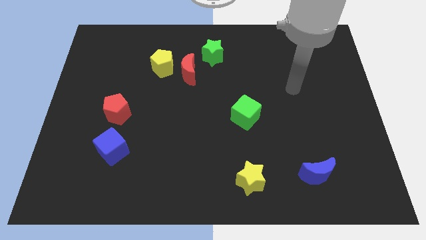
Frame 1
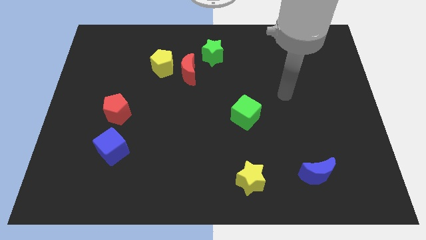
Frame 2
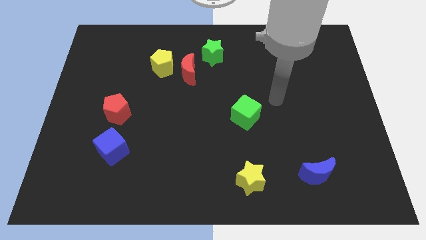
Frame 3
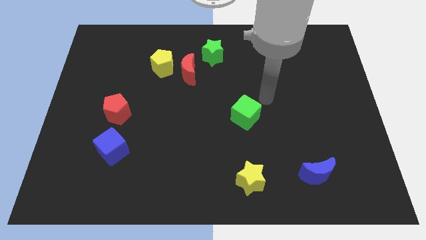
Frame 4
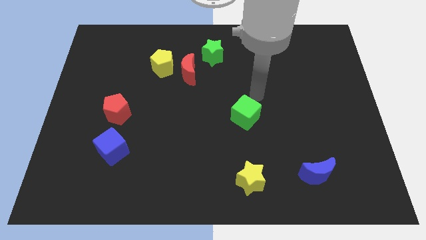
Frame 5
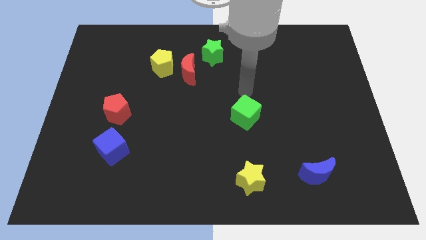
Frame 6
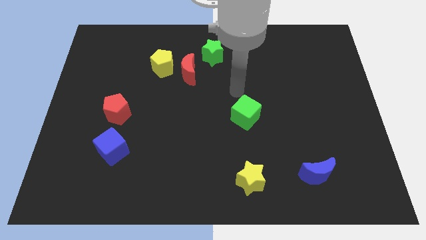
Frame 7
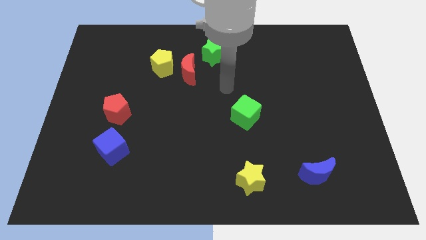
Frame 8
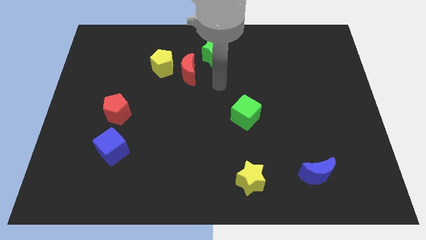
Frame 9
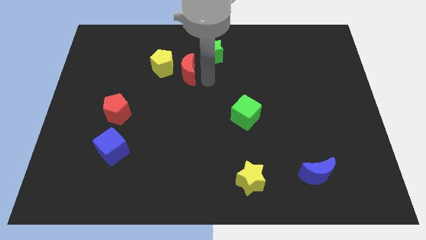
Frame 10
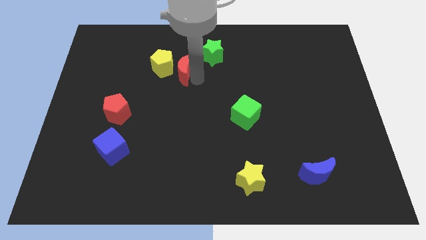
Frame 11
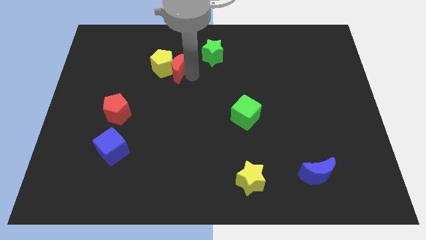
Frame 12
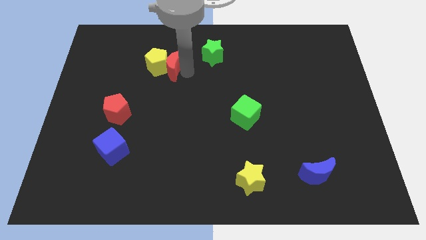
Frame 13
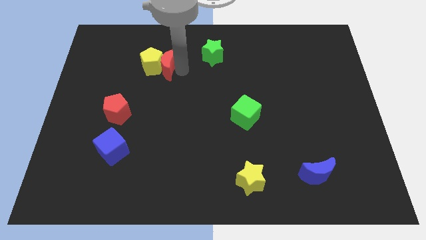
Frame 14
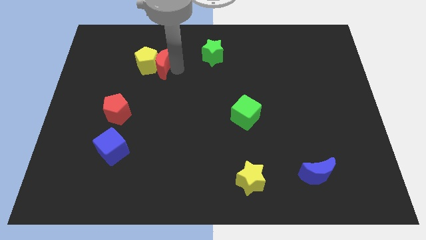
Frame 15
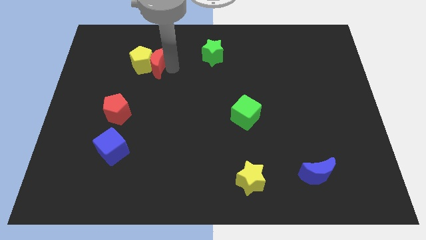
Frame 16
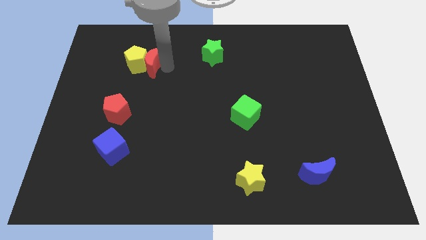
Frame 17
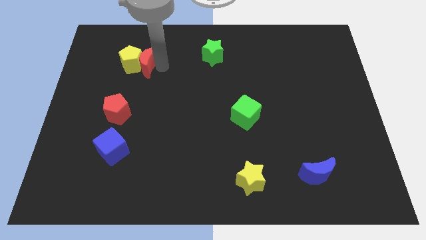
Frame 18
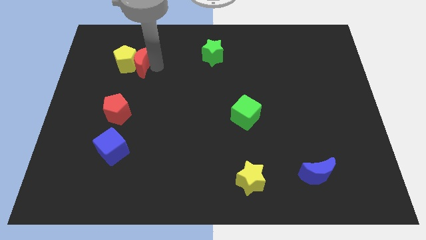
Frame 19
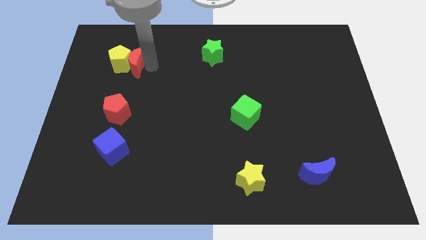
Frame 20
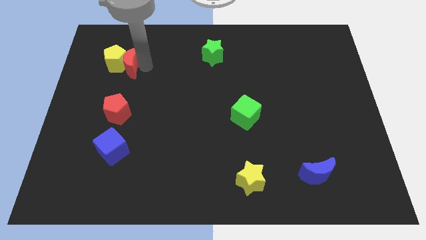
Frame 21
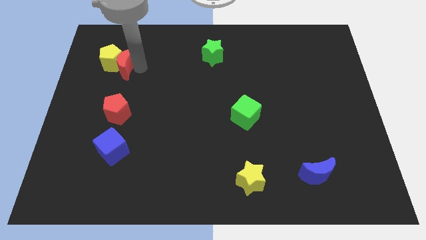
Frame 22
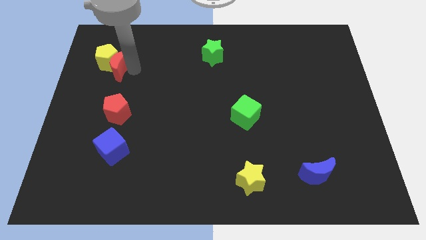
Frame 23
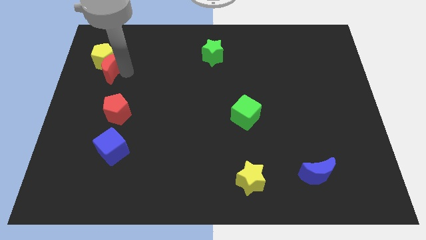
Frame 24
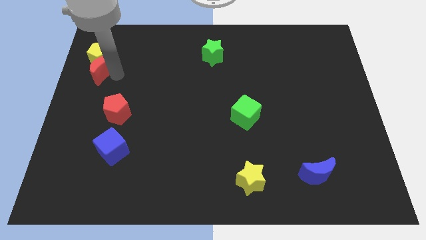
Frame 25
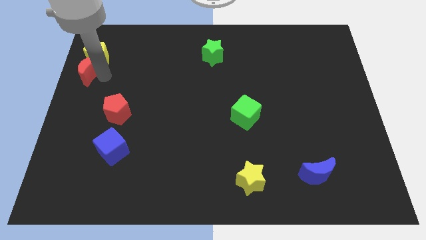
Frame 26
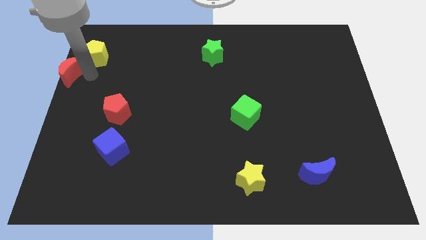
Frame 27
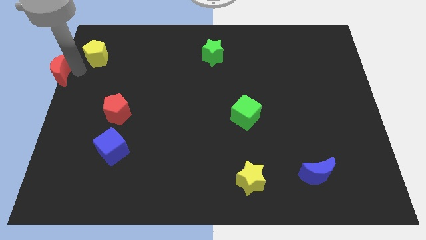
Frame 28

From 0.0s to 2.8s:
move the yellow pentagon away from the red moon

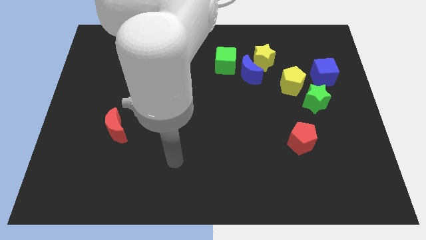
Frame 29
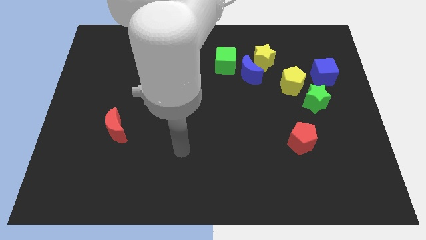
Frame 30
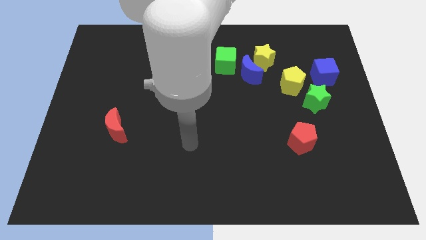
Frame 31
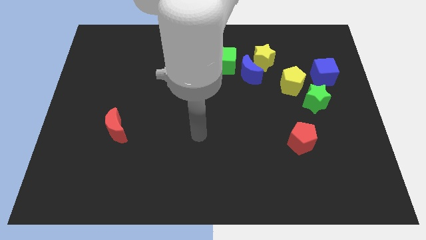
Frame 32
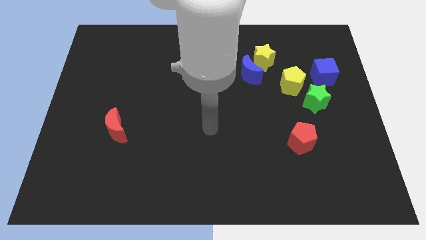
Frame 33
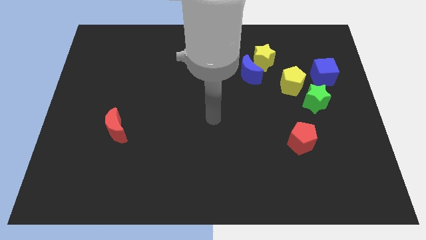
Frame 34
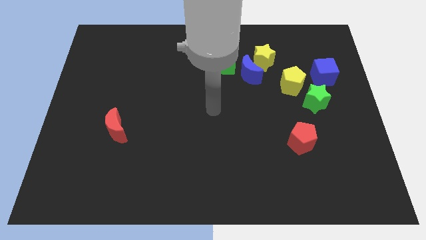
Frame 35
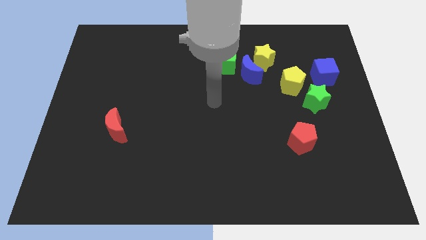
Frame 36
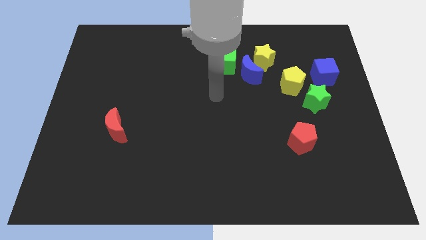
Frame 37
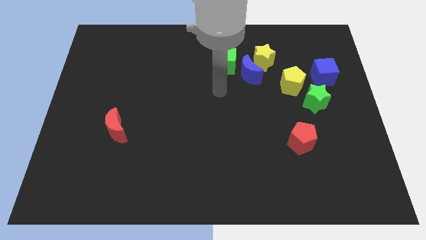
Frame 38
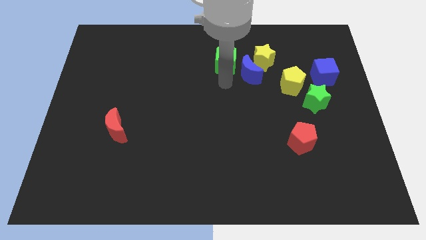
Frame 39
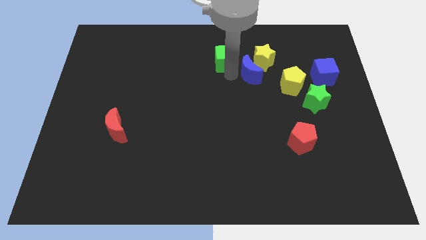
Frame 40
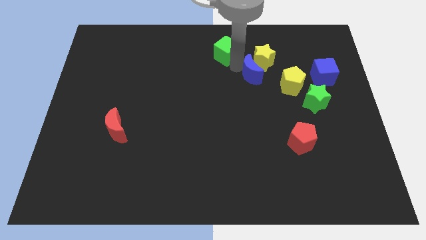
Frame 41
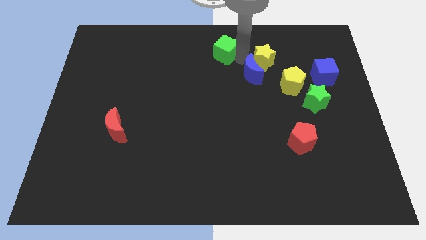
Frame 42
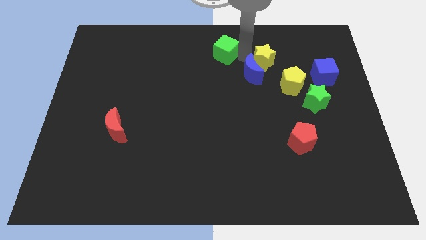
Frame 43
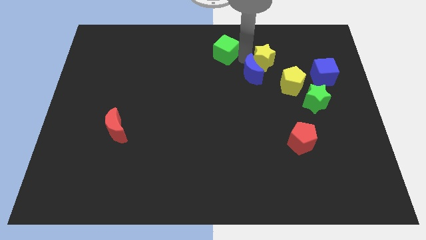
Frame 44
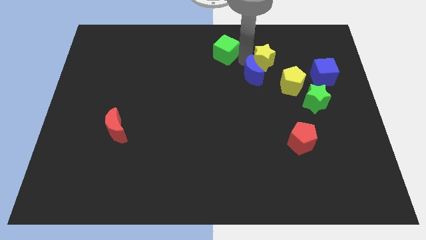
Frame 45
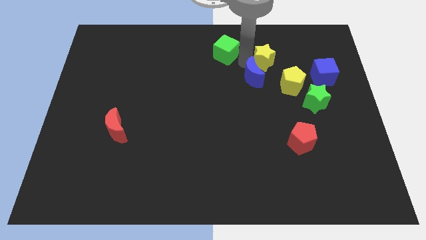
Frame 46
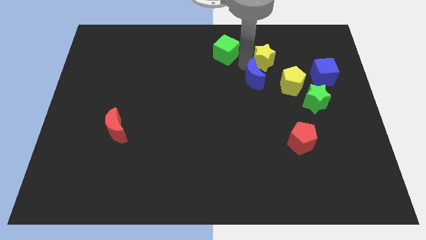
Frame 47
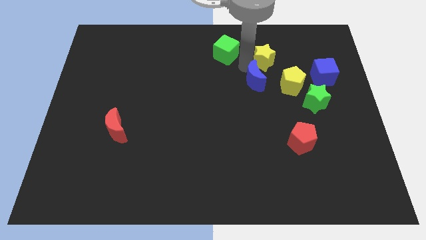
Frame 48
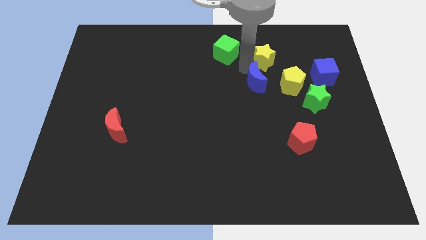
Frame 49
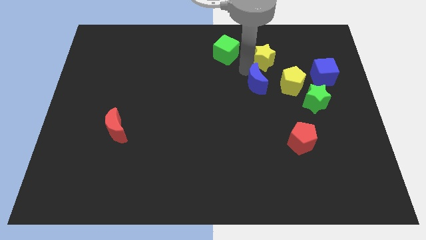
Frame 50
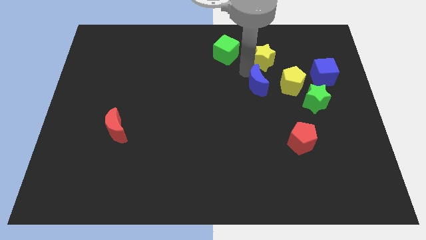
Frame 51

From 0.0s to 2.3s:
pull the blue moon apart from the yellow star and green cube

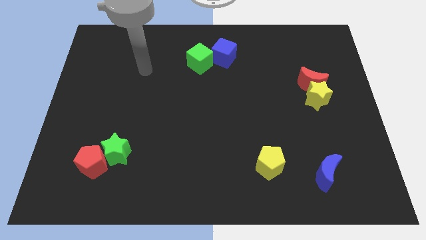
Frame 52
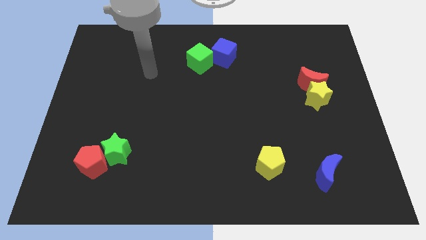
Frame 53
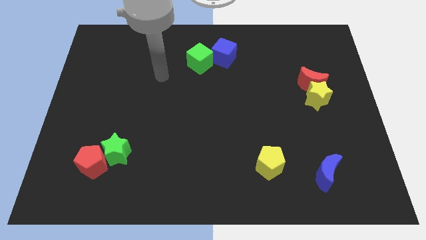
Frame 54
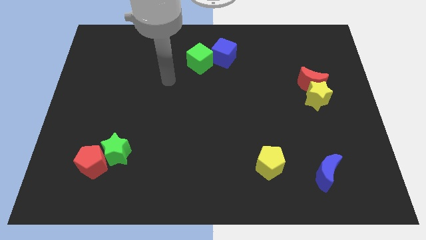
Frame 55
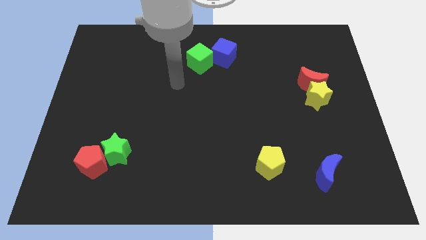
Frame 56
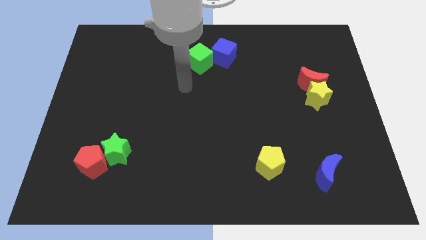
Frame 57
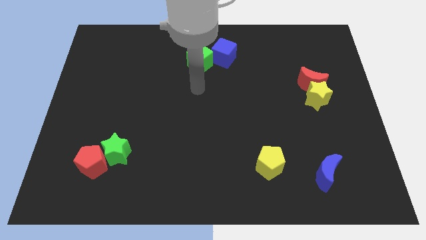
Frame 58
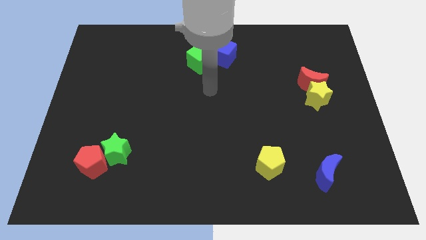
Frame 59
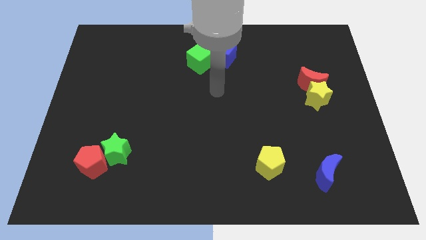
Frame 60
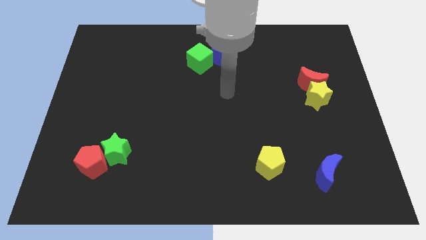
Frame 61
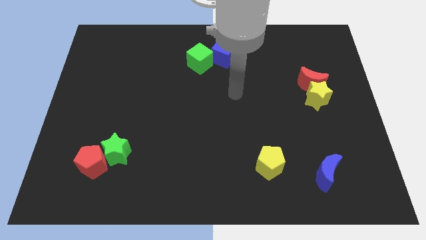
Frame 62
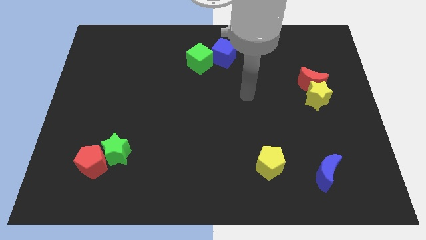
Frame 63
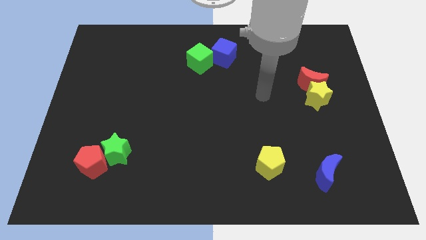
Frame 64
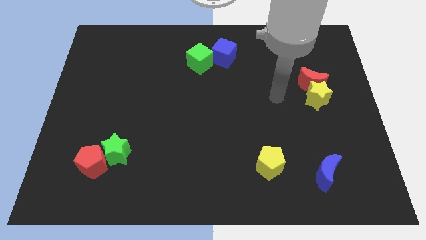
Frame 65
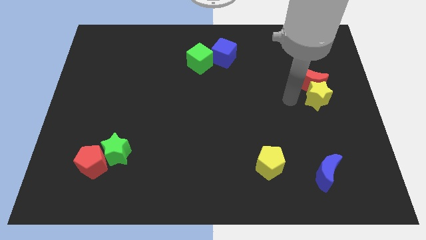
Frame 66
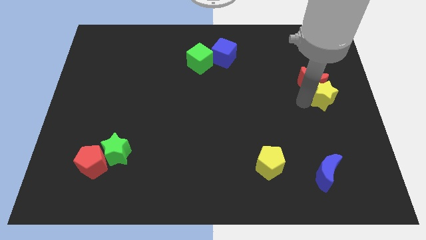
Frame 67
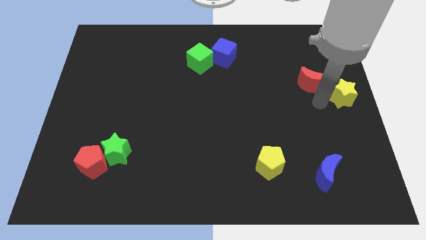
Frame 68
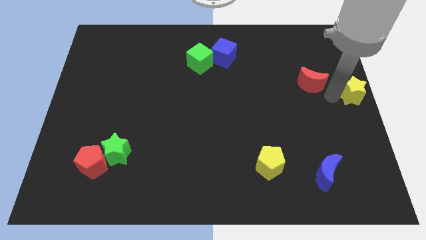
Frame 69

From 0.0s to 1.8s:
pull the red moon apart from the yellow star

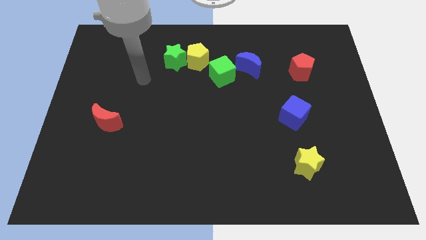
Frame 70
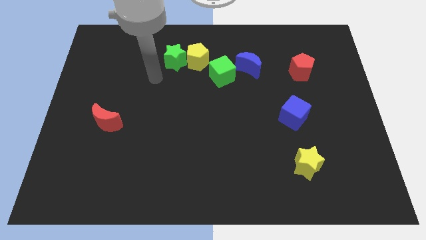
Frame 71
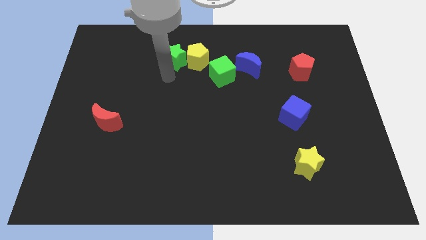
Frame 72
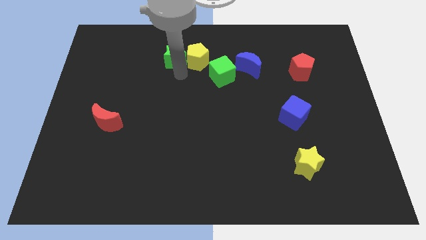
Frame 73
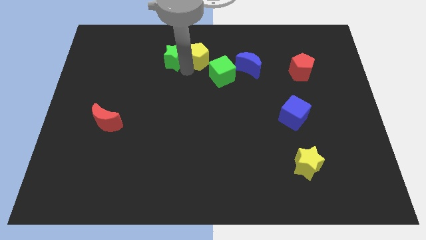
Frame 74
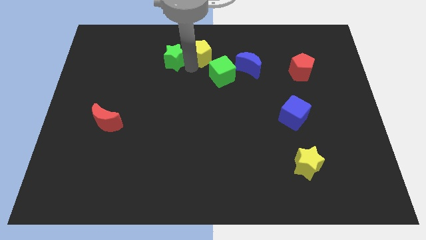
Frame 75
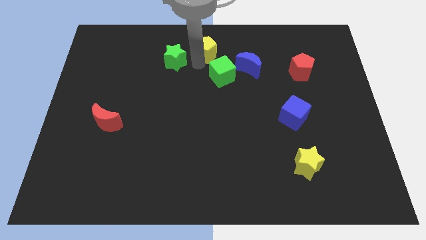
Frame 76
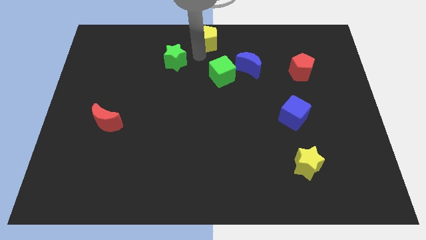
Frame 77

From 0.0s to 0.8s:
pull the green star apart from the yellow pentagon

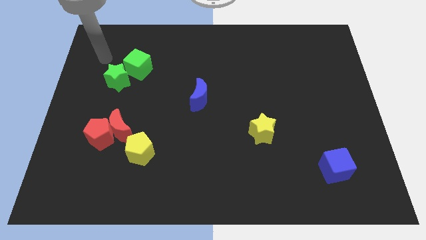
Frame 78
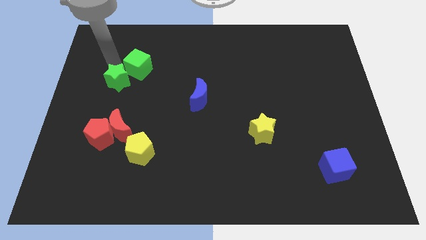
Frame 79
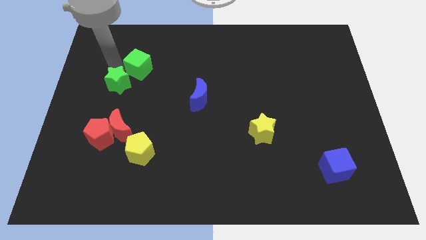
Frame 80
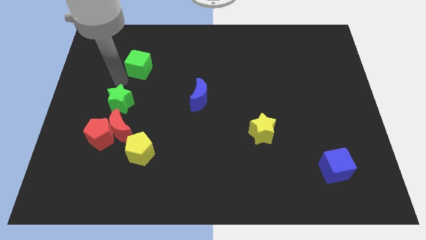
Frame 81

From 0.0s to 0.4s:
move the green cube away from the green star

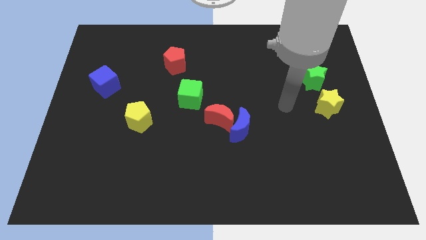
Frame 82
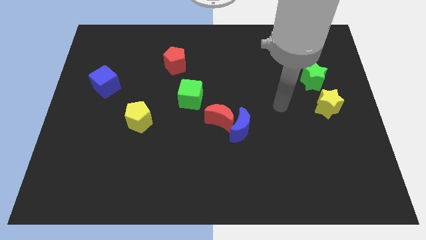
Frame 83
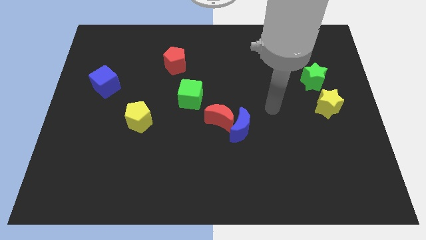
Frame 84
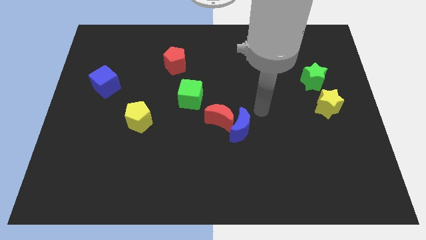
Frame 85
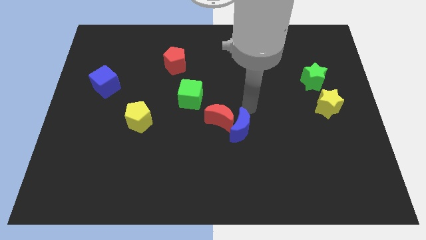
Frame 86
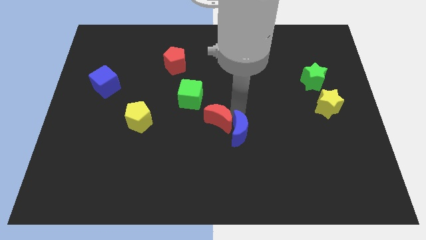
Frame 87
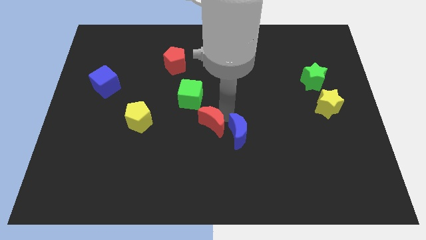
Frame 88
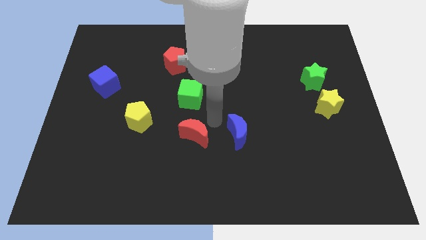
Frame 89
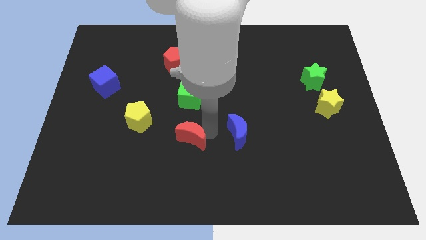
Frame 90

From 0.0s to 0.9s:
move the blue moon away from the red moon

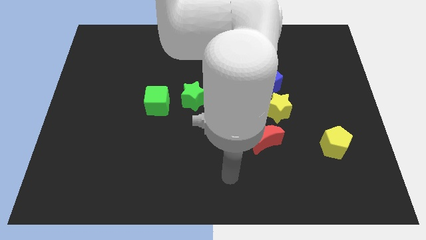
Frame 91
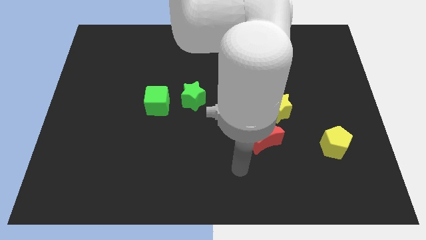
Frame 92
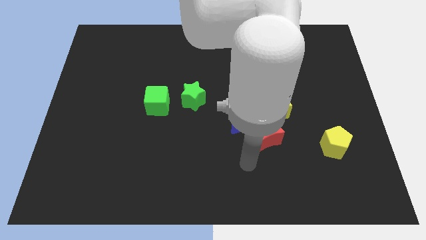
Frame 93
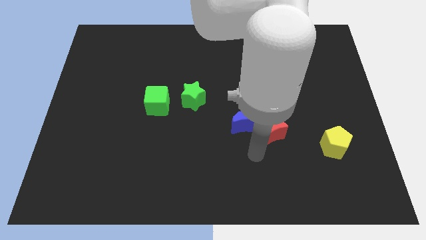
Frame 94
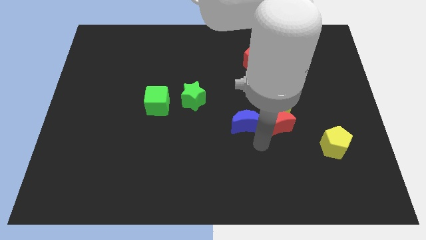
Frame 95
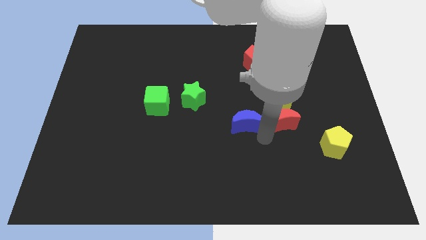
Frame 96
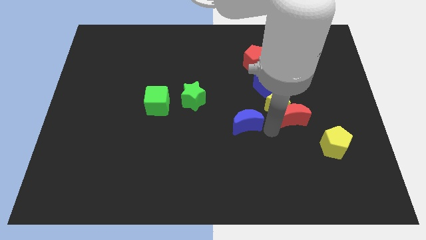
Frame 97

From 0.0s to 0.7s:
pull the blue moon apart from the red moon and yellow star
